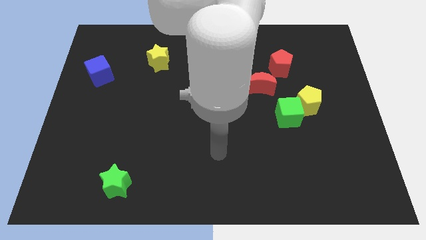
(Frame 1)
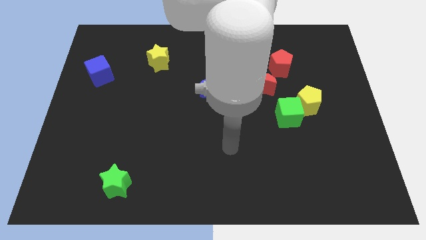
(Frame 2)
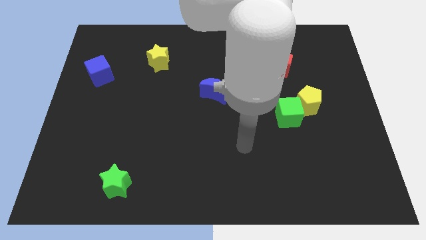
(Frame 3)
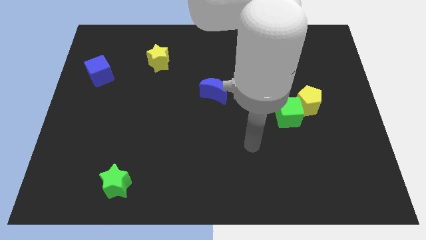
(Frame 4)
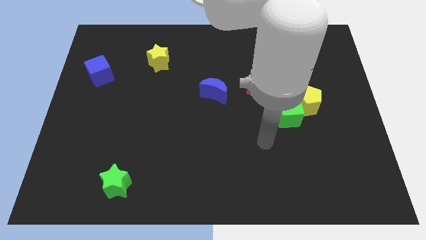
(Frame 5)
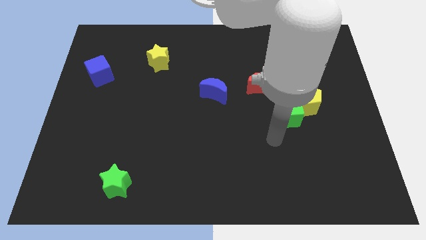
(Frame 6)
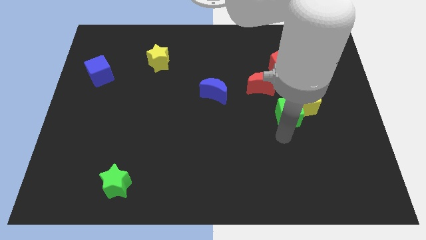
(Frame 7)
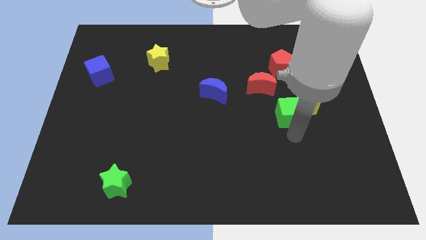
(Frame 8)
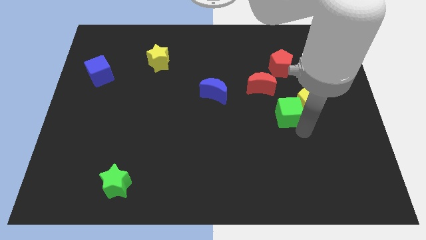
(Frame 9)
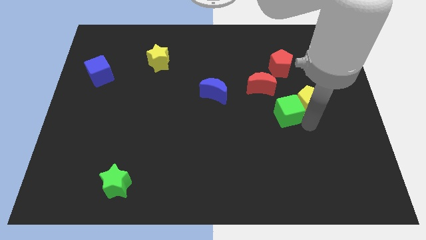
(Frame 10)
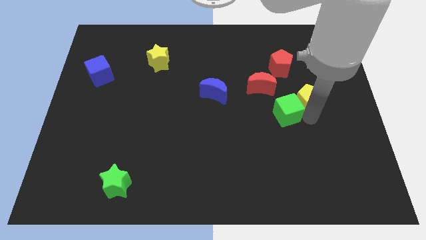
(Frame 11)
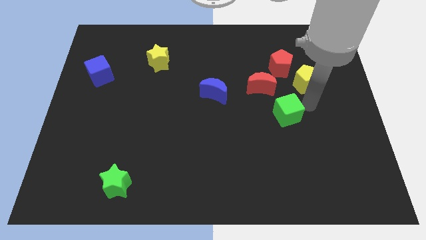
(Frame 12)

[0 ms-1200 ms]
pull the green cube apart from the yellow pentagon

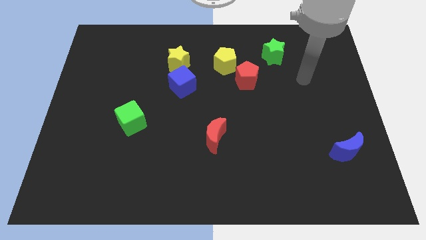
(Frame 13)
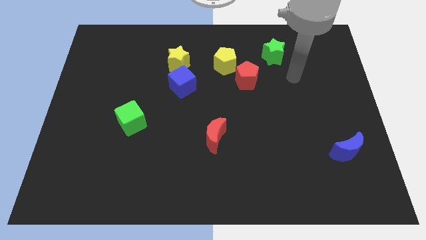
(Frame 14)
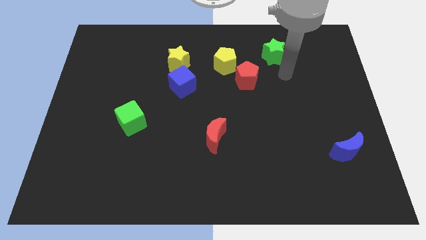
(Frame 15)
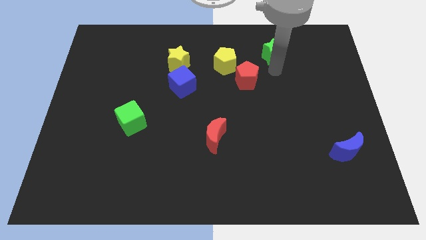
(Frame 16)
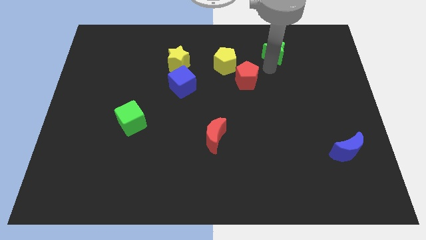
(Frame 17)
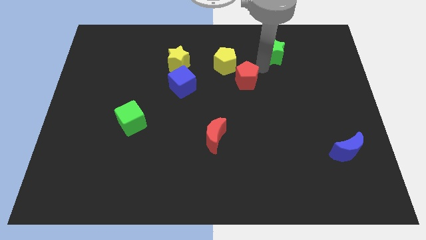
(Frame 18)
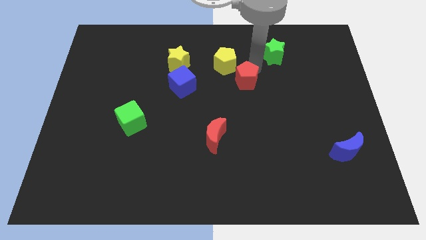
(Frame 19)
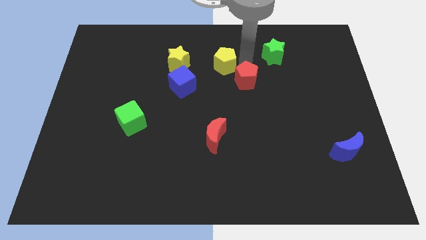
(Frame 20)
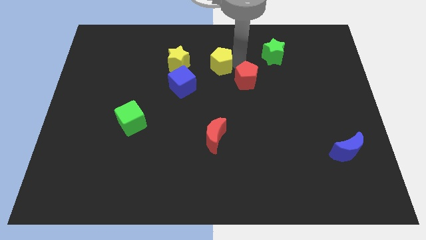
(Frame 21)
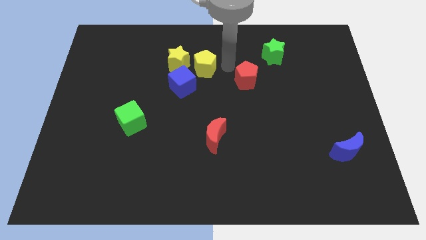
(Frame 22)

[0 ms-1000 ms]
move the red pentagon away from the yellow pentagon

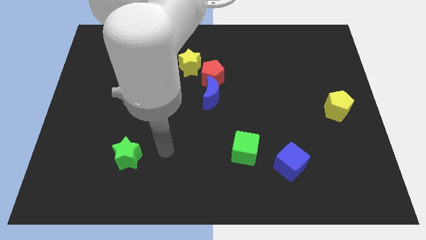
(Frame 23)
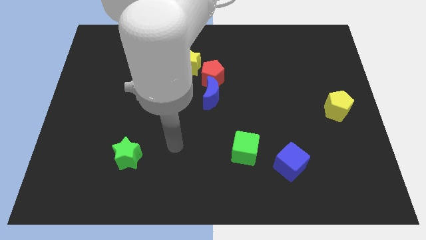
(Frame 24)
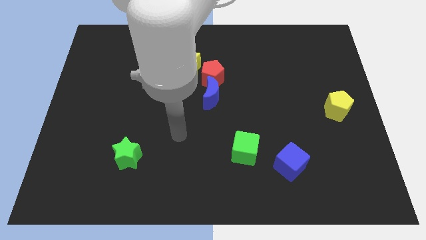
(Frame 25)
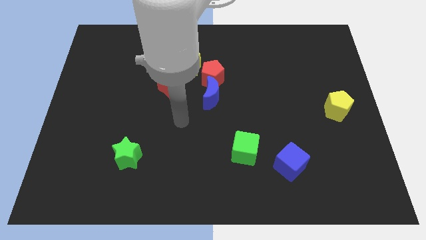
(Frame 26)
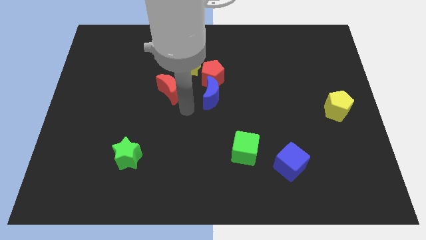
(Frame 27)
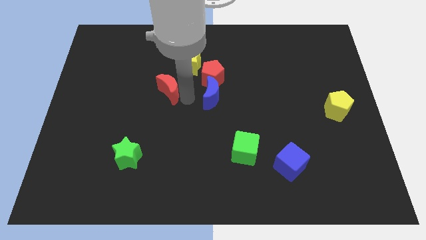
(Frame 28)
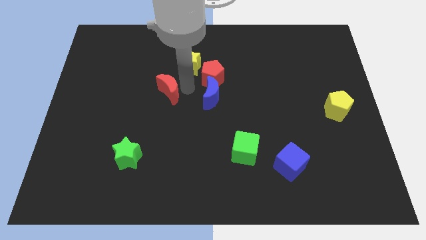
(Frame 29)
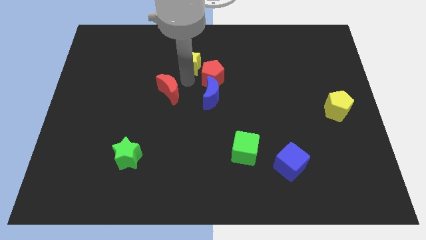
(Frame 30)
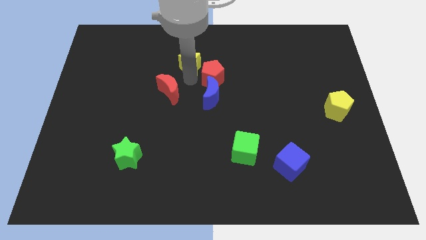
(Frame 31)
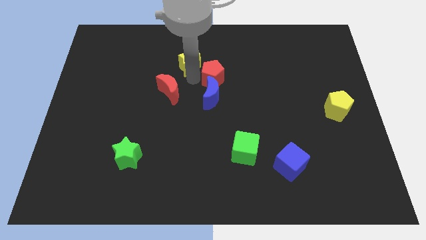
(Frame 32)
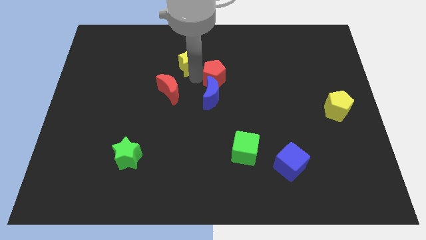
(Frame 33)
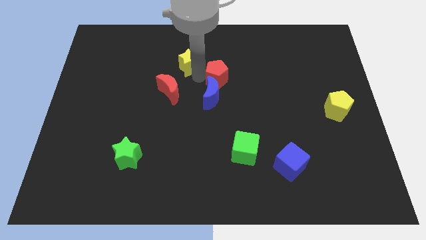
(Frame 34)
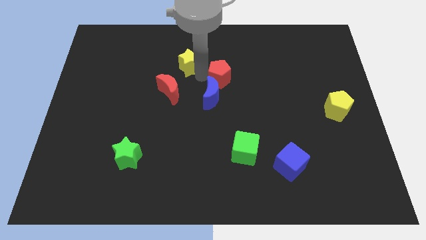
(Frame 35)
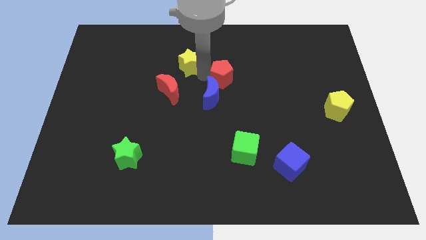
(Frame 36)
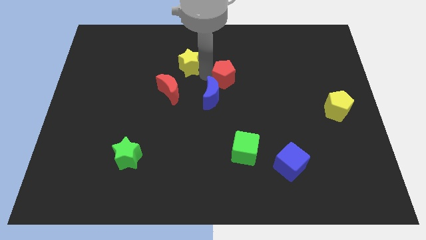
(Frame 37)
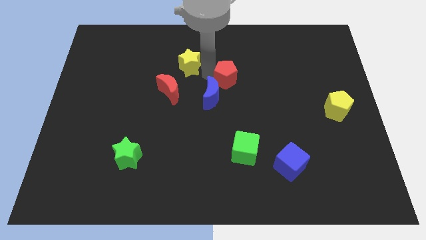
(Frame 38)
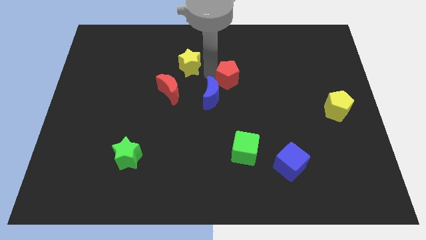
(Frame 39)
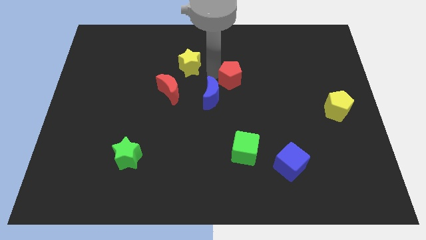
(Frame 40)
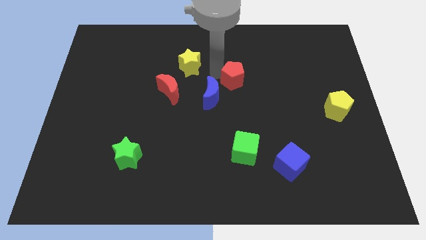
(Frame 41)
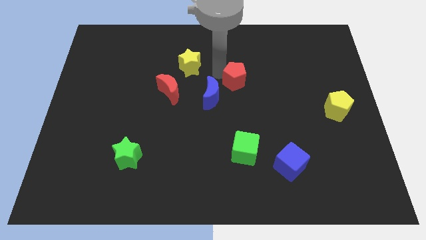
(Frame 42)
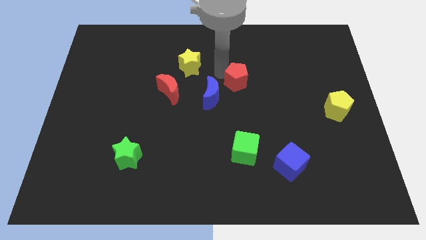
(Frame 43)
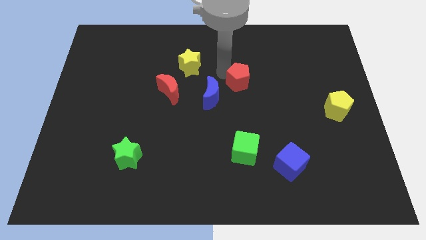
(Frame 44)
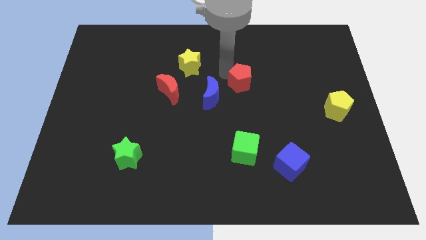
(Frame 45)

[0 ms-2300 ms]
move the red pentagon away from the blue moon and yellow star

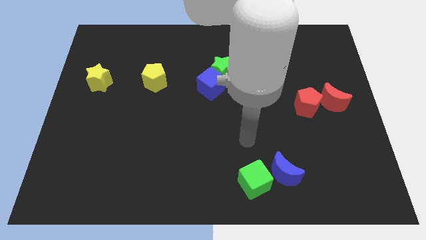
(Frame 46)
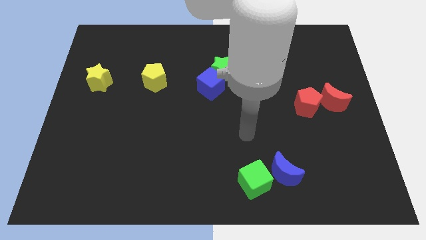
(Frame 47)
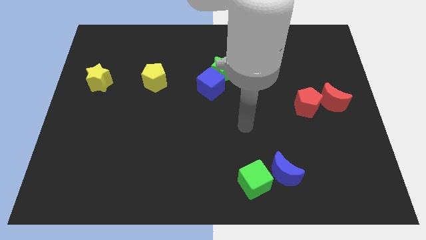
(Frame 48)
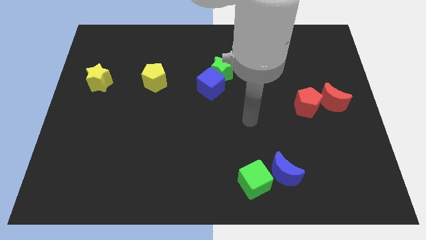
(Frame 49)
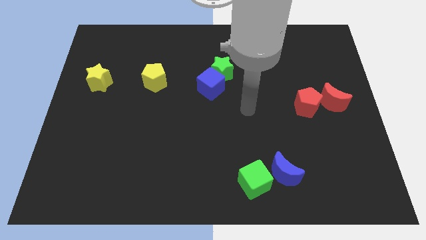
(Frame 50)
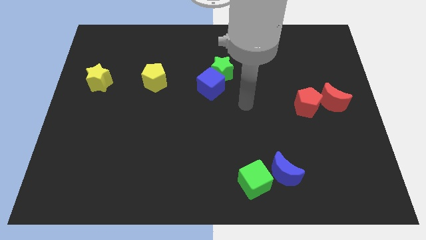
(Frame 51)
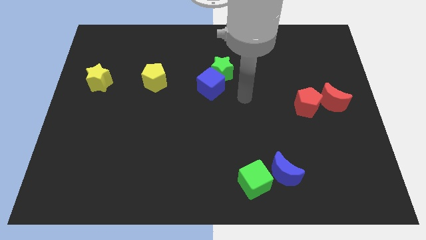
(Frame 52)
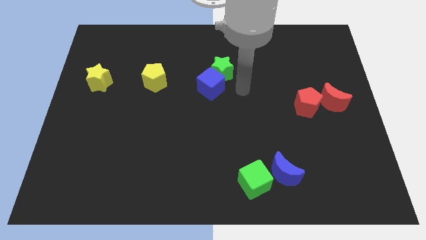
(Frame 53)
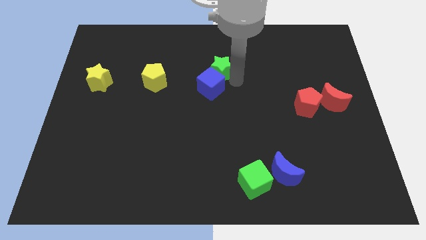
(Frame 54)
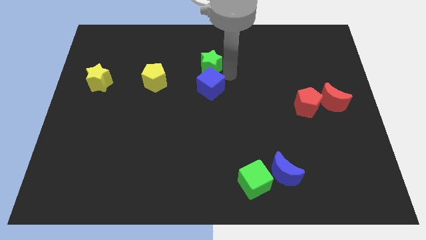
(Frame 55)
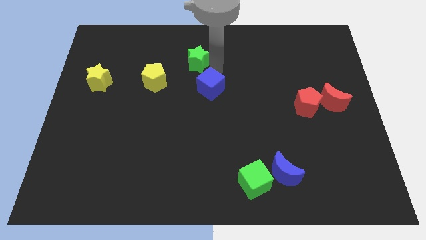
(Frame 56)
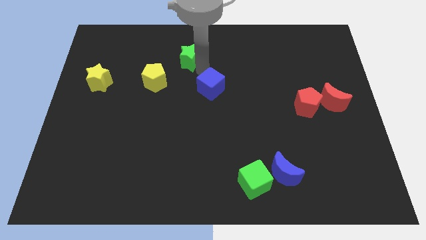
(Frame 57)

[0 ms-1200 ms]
move the blue cube away from the green star

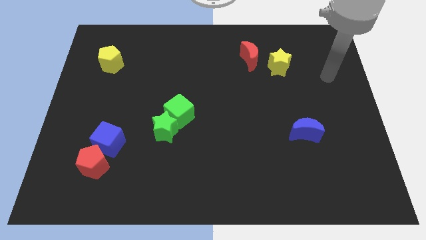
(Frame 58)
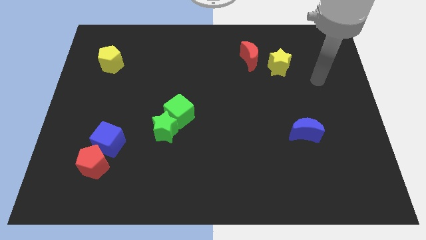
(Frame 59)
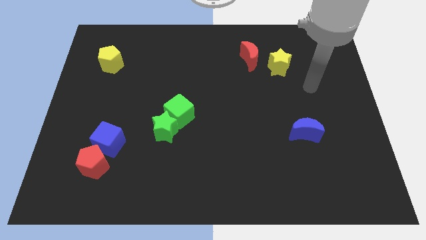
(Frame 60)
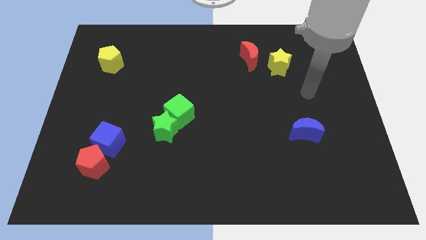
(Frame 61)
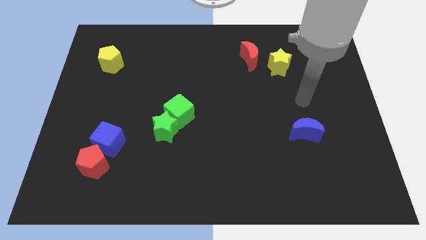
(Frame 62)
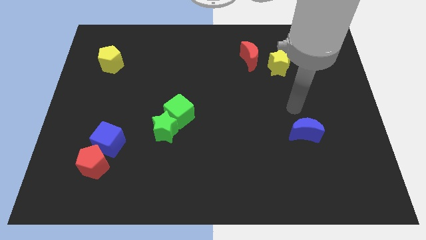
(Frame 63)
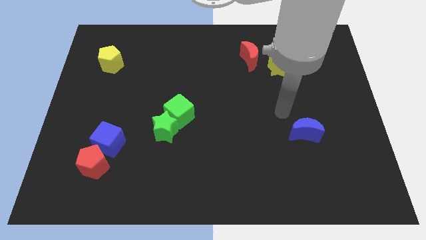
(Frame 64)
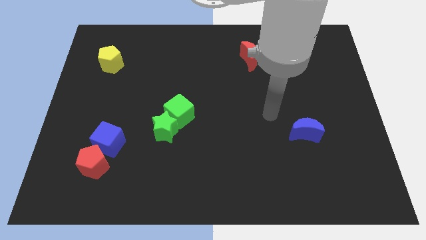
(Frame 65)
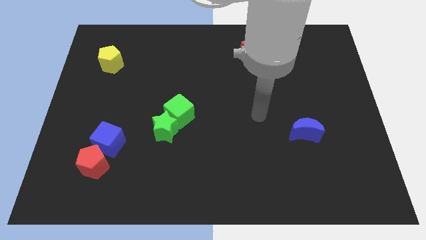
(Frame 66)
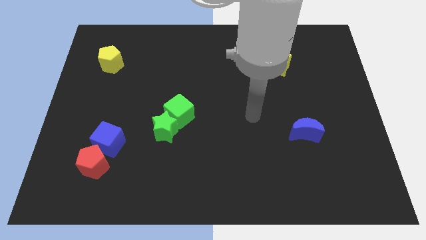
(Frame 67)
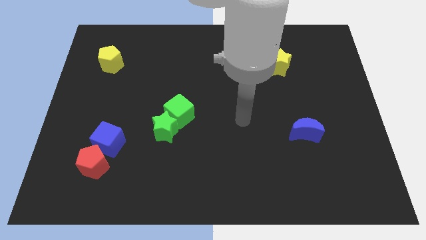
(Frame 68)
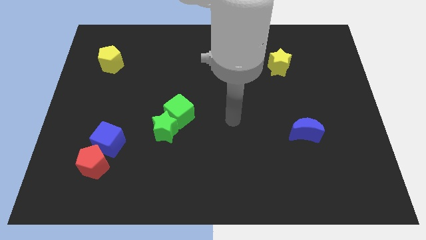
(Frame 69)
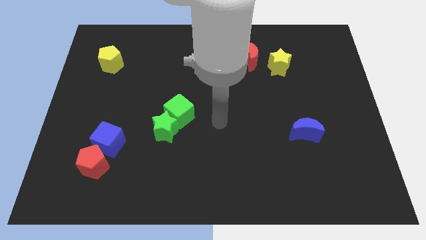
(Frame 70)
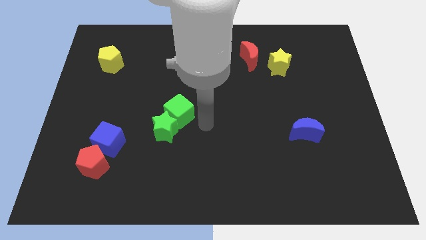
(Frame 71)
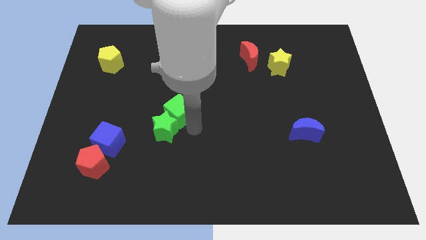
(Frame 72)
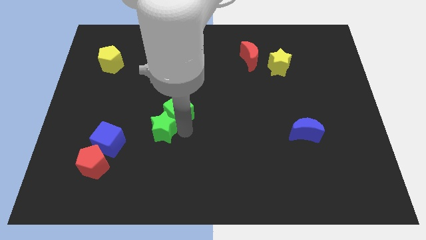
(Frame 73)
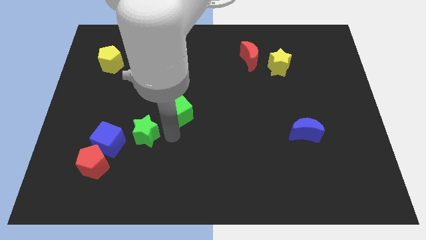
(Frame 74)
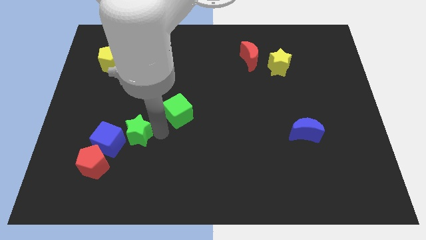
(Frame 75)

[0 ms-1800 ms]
move the green cube away from the green star

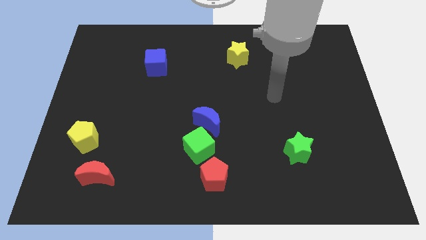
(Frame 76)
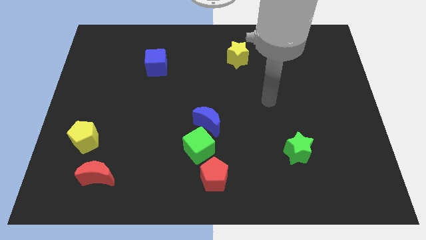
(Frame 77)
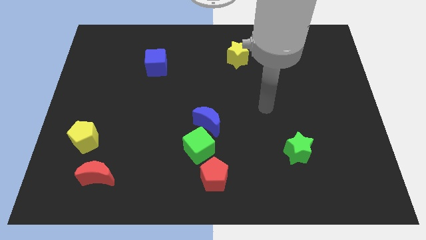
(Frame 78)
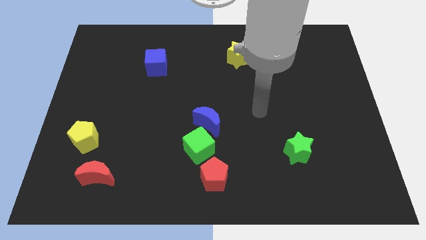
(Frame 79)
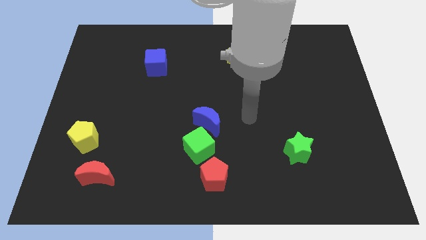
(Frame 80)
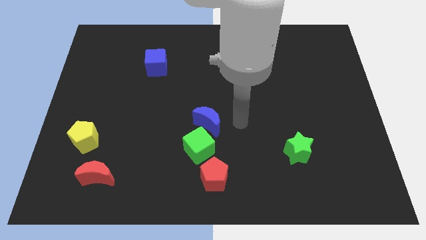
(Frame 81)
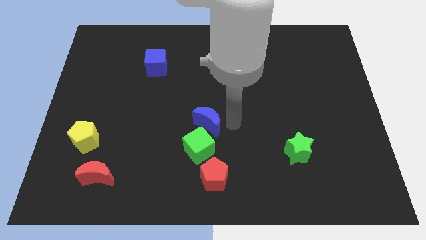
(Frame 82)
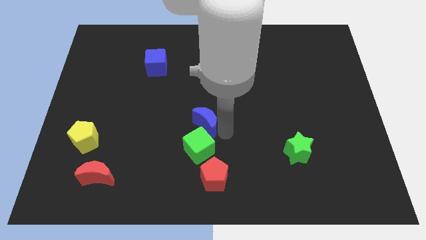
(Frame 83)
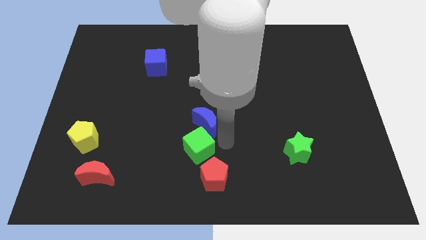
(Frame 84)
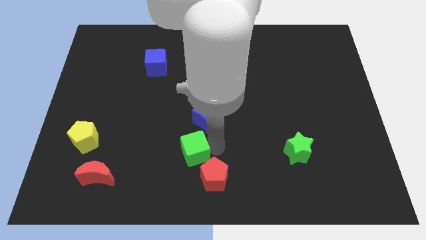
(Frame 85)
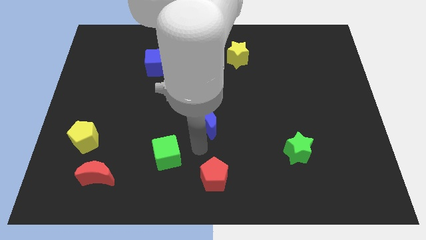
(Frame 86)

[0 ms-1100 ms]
separate the blue moon from the green cube

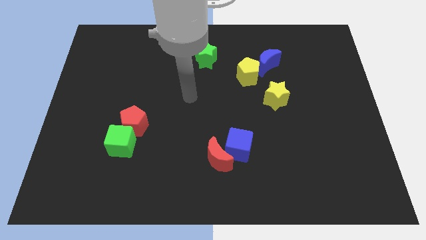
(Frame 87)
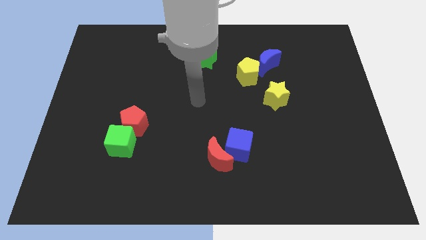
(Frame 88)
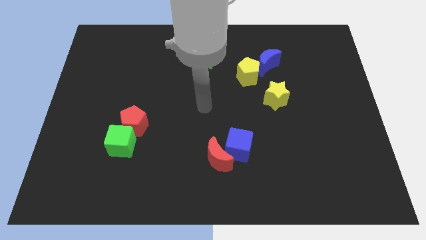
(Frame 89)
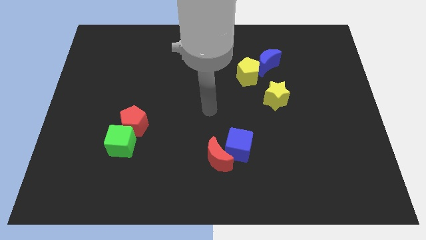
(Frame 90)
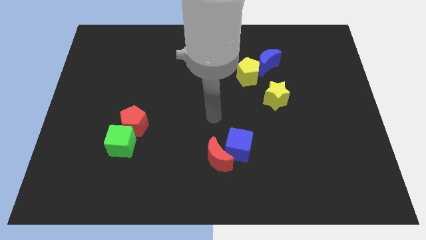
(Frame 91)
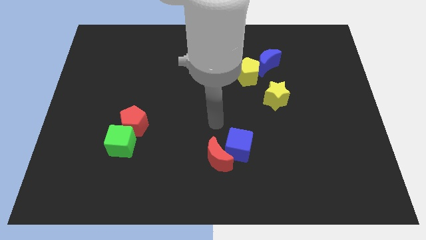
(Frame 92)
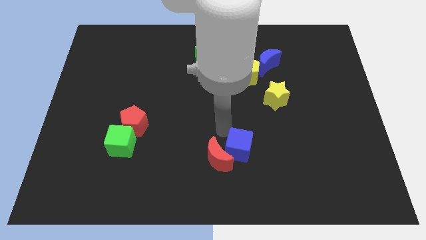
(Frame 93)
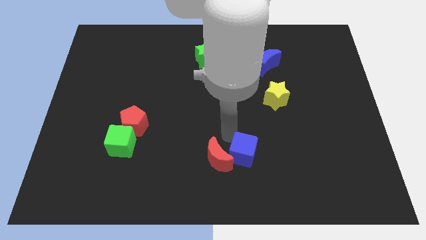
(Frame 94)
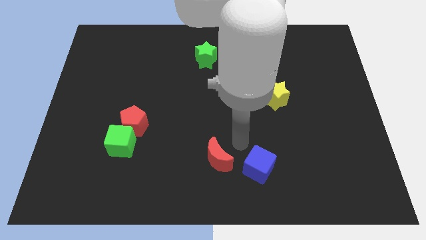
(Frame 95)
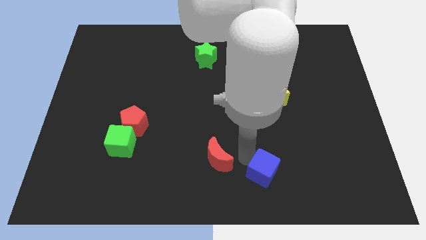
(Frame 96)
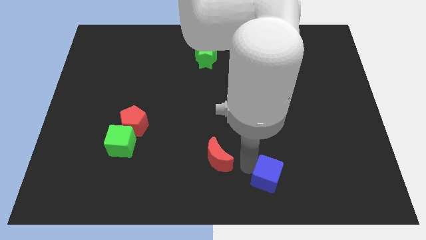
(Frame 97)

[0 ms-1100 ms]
move the red moon away from the blue cube
